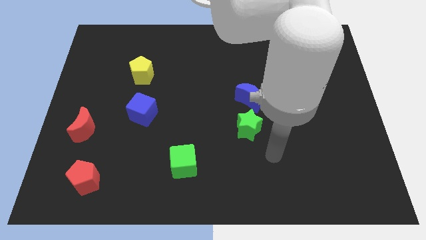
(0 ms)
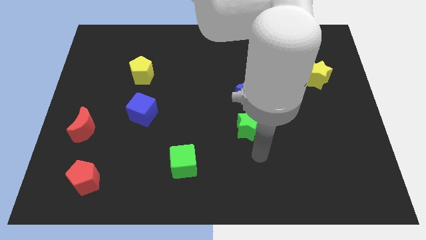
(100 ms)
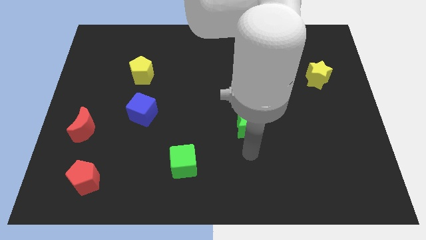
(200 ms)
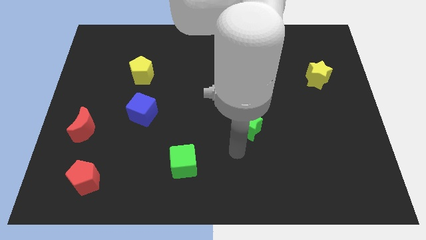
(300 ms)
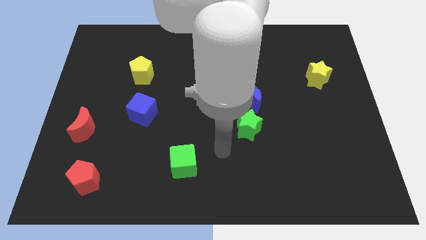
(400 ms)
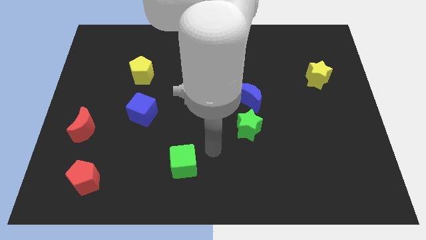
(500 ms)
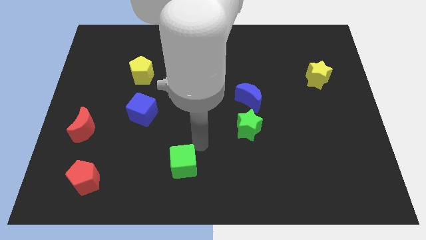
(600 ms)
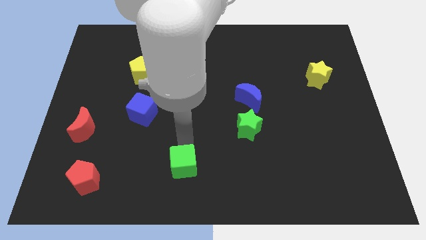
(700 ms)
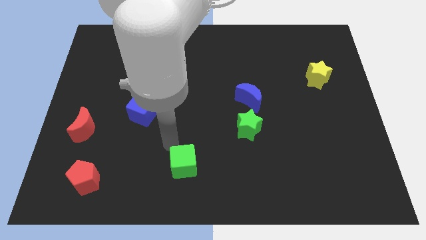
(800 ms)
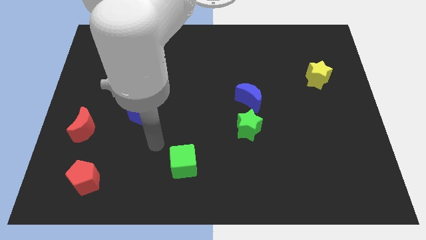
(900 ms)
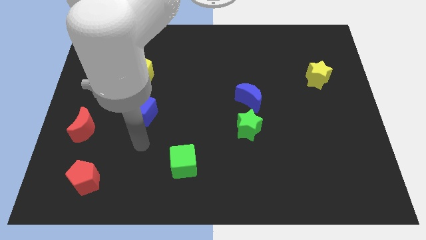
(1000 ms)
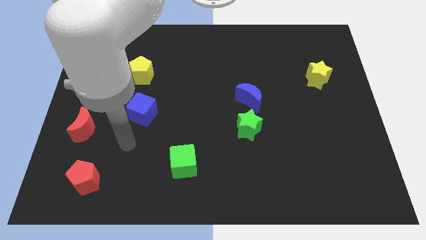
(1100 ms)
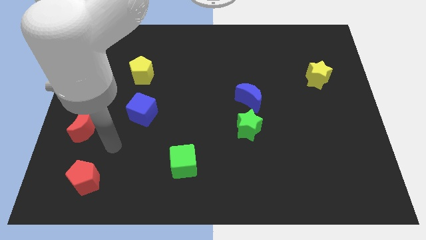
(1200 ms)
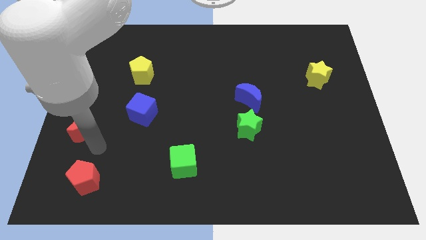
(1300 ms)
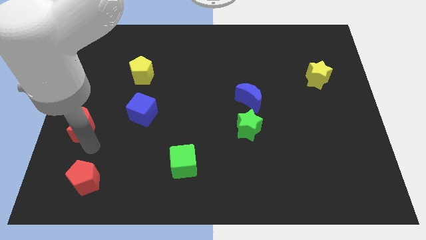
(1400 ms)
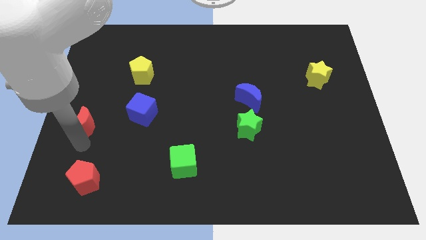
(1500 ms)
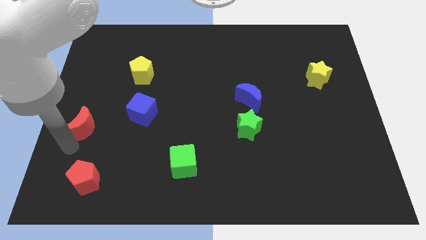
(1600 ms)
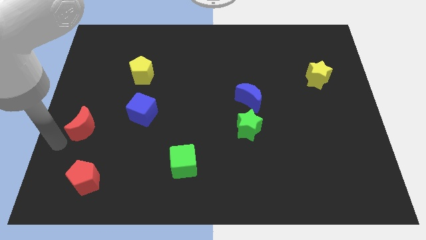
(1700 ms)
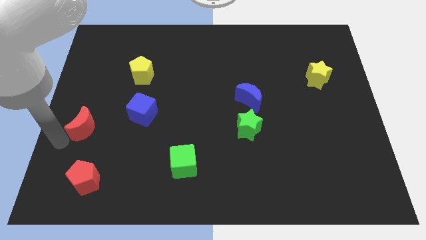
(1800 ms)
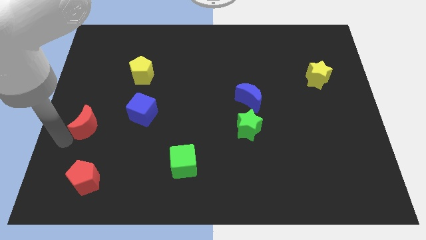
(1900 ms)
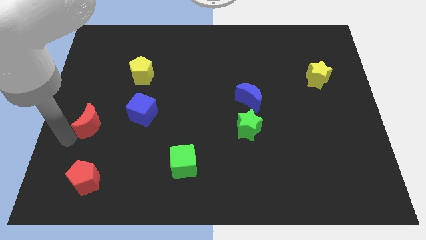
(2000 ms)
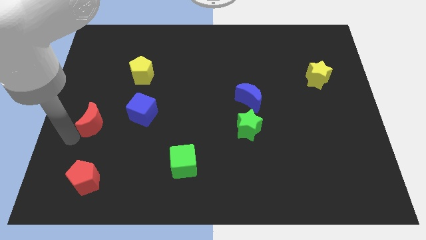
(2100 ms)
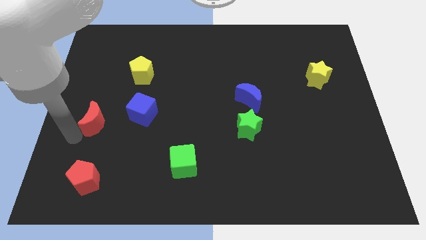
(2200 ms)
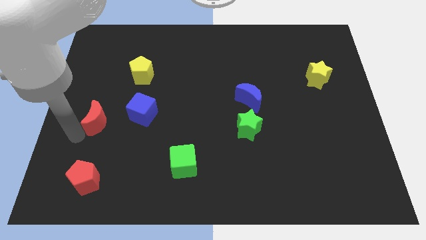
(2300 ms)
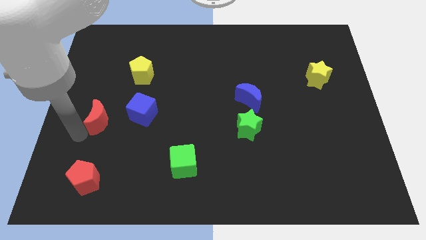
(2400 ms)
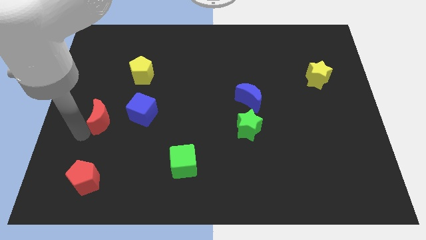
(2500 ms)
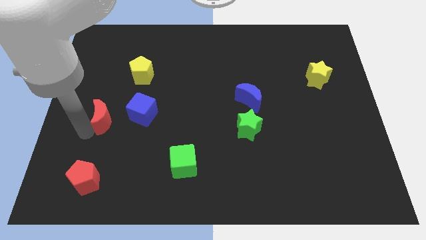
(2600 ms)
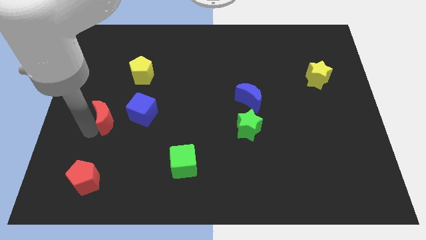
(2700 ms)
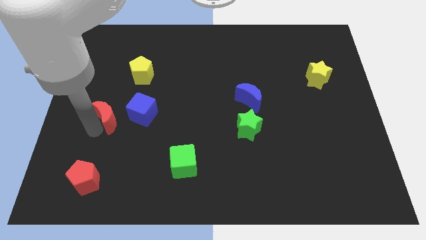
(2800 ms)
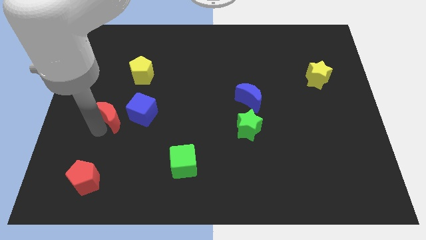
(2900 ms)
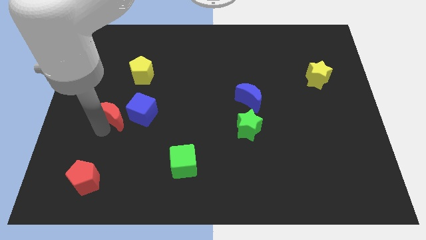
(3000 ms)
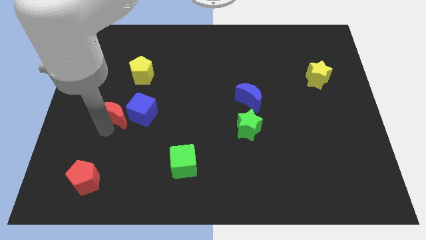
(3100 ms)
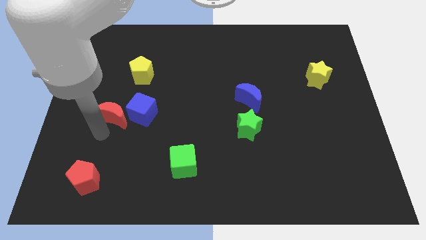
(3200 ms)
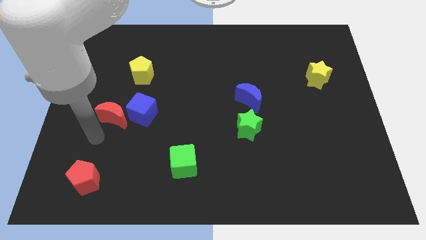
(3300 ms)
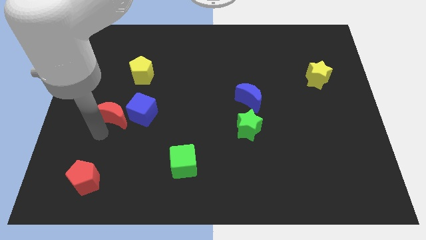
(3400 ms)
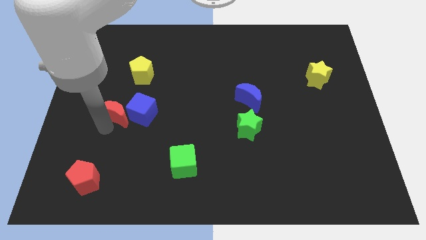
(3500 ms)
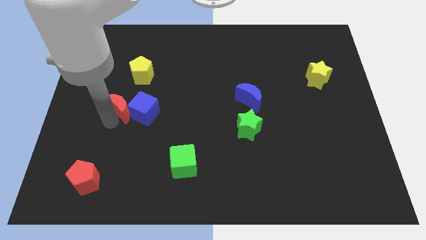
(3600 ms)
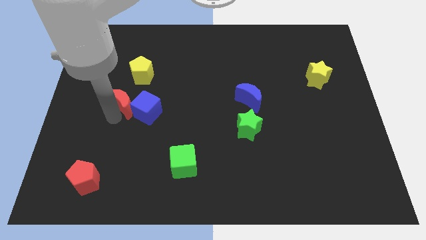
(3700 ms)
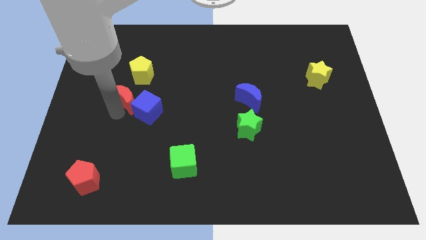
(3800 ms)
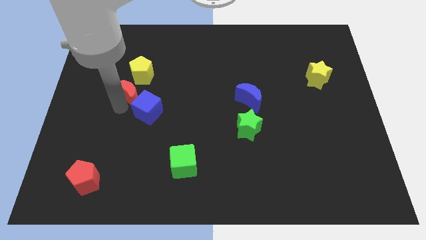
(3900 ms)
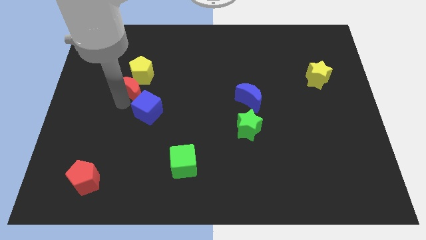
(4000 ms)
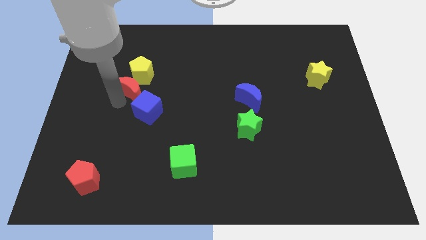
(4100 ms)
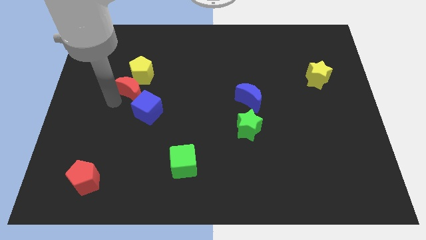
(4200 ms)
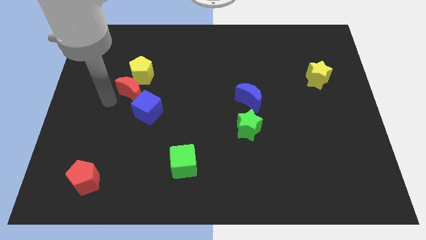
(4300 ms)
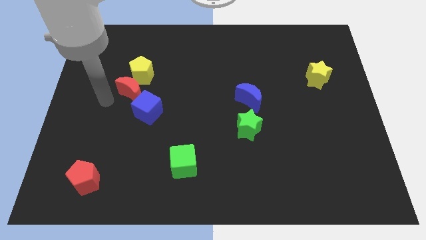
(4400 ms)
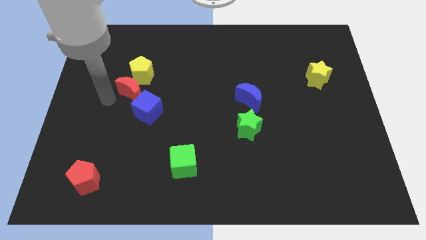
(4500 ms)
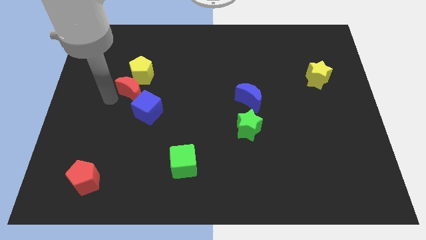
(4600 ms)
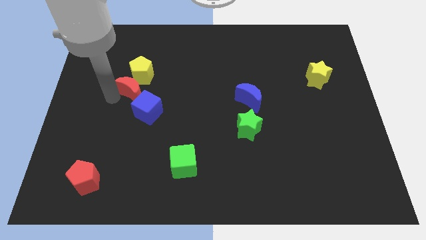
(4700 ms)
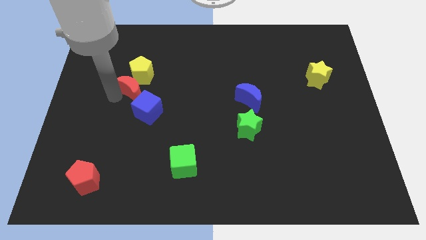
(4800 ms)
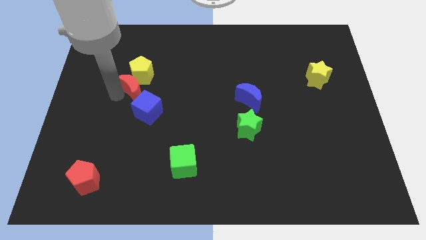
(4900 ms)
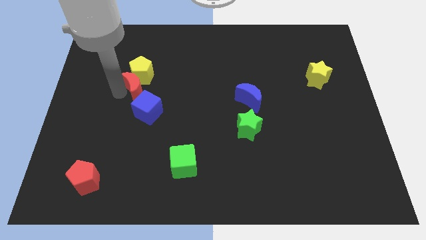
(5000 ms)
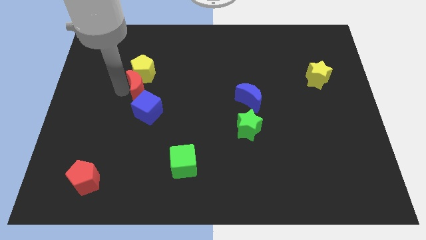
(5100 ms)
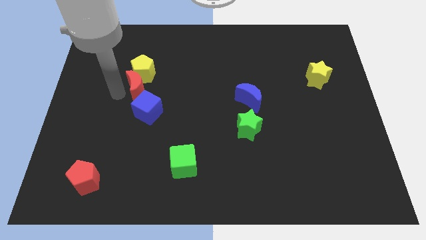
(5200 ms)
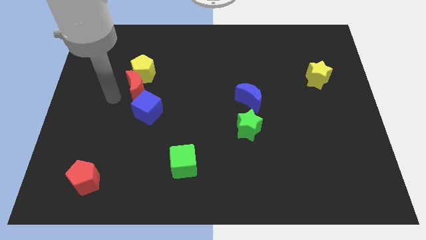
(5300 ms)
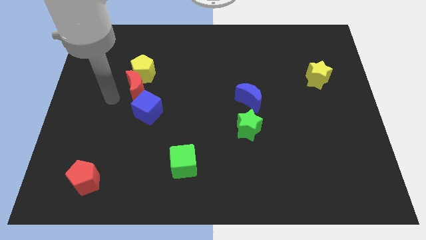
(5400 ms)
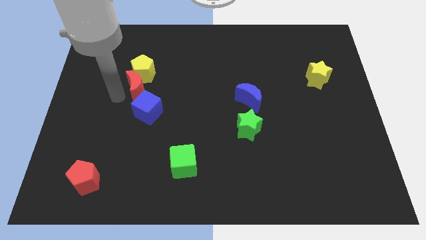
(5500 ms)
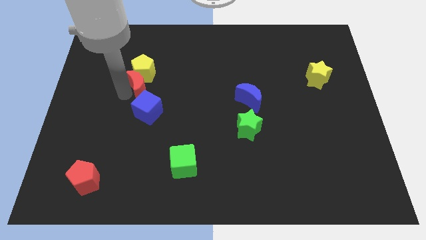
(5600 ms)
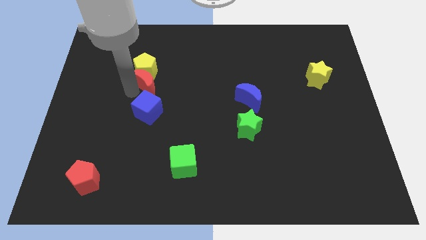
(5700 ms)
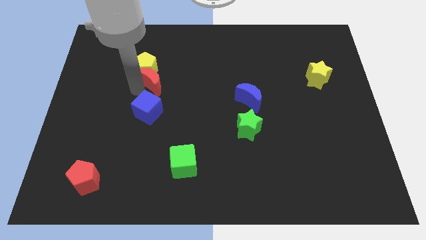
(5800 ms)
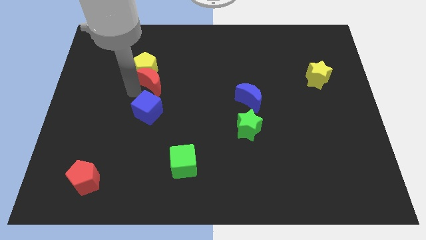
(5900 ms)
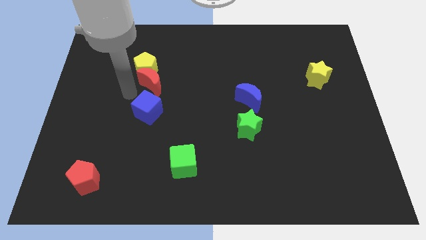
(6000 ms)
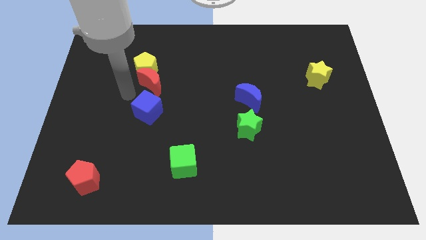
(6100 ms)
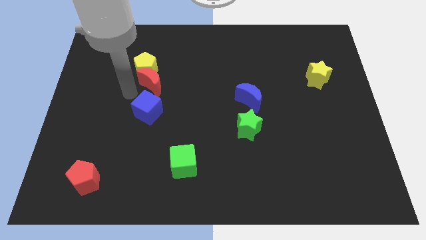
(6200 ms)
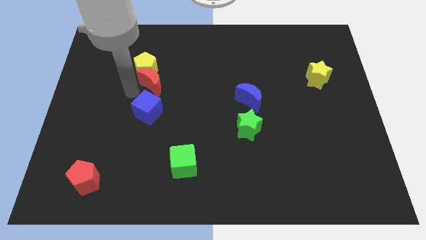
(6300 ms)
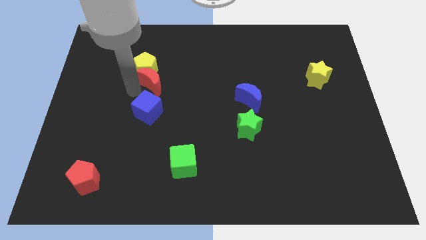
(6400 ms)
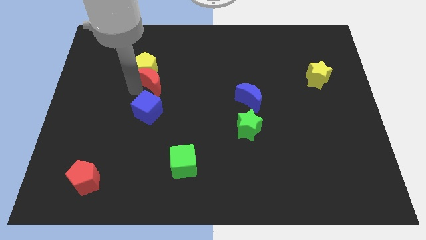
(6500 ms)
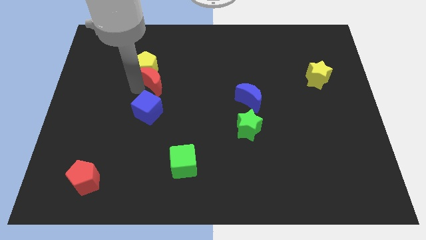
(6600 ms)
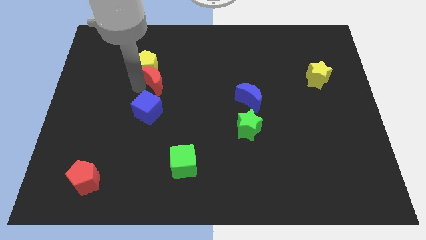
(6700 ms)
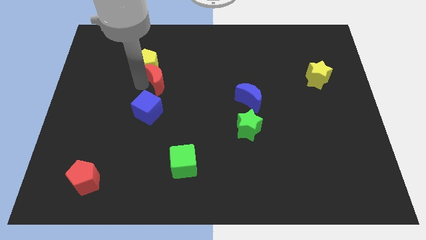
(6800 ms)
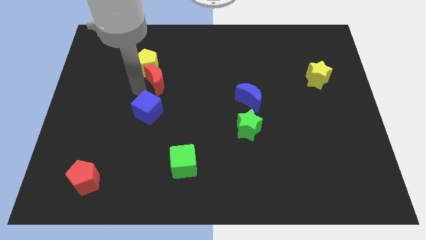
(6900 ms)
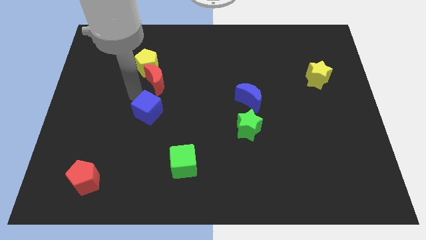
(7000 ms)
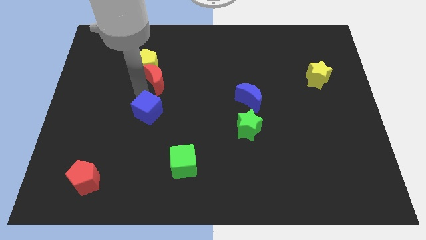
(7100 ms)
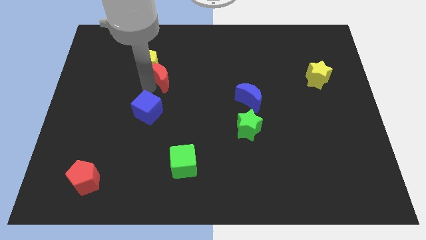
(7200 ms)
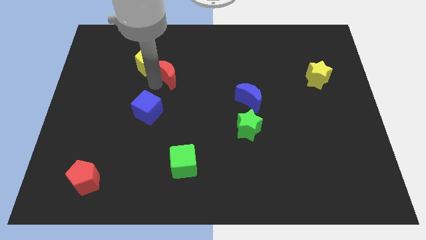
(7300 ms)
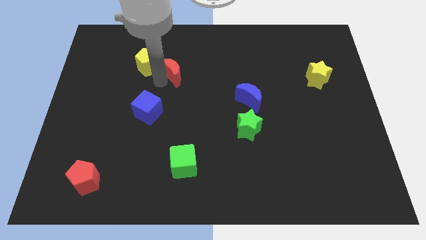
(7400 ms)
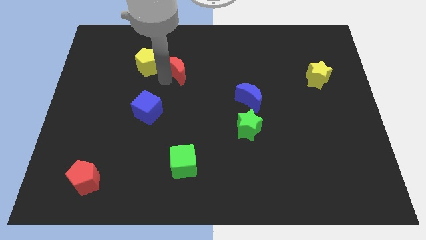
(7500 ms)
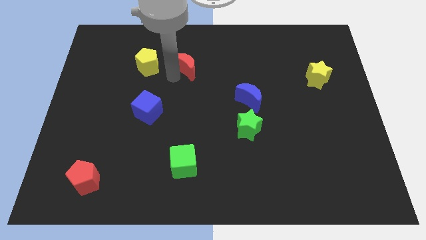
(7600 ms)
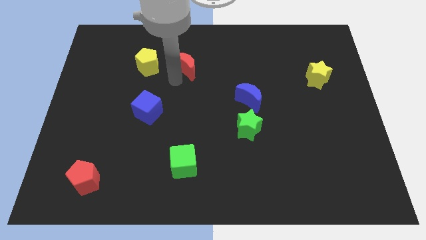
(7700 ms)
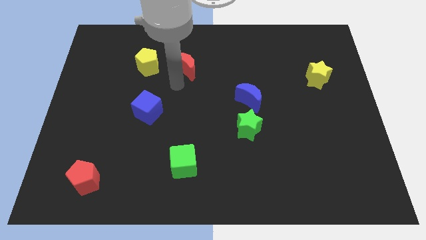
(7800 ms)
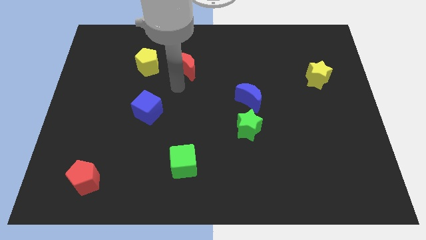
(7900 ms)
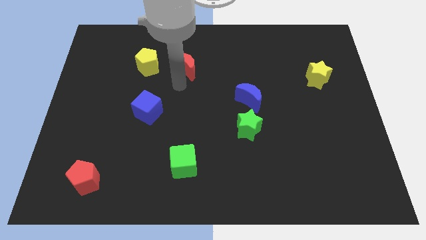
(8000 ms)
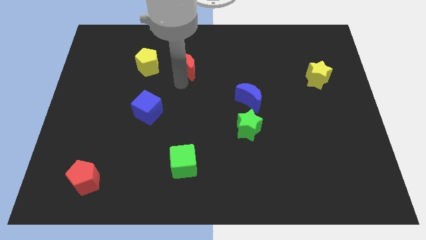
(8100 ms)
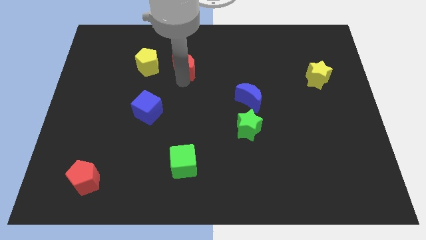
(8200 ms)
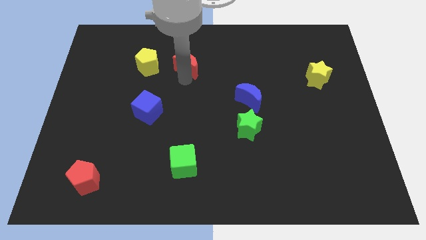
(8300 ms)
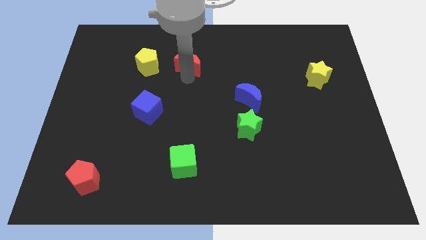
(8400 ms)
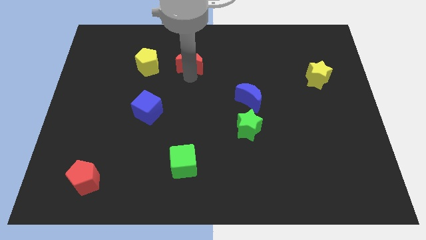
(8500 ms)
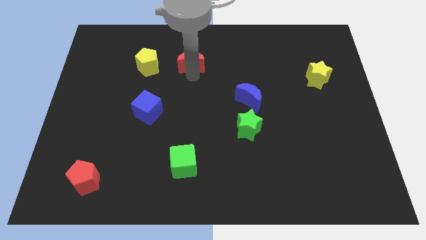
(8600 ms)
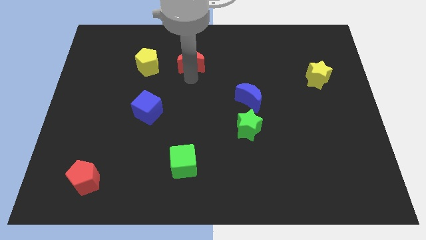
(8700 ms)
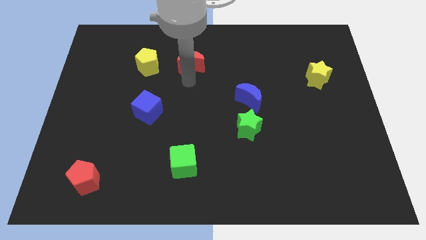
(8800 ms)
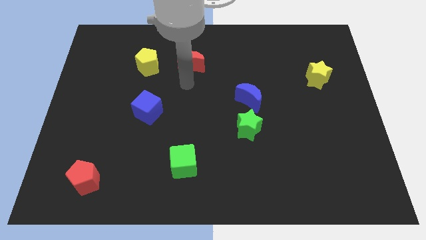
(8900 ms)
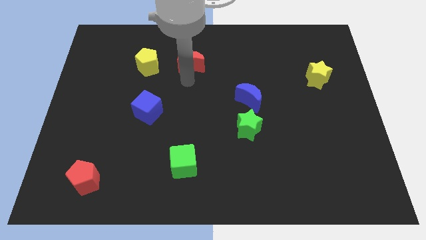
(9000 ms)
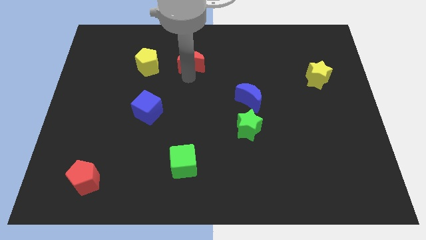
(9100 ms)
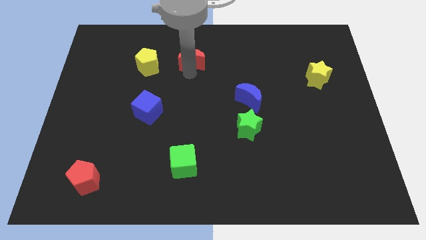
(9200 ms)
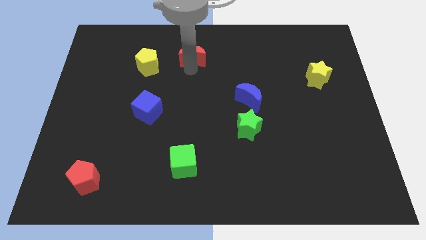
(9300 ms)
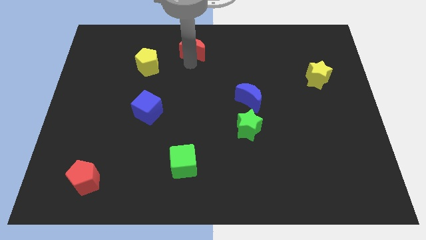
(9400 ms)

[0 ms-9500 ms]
push the red moon to the top side
